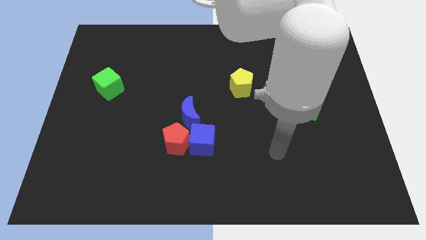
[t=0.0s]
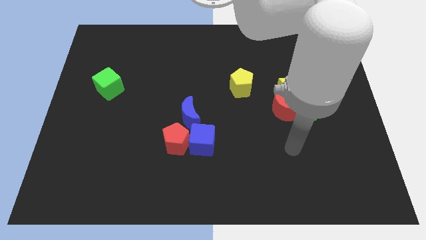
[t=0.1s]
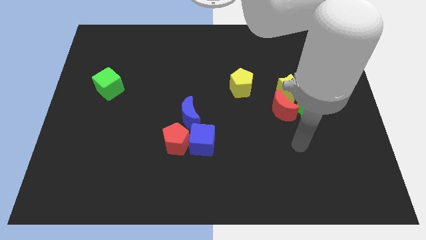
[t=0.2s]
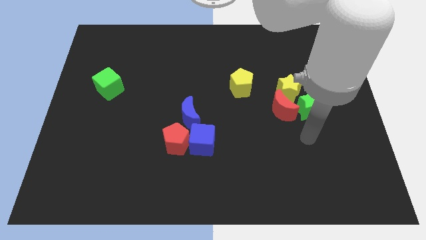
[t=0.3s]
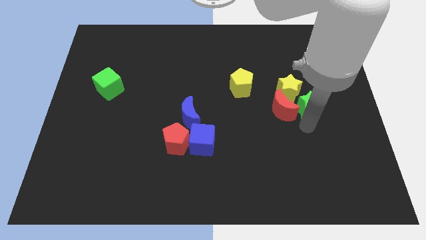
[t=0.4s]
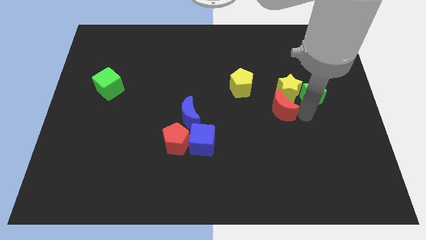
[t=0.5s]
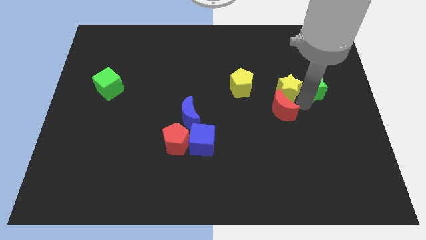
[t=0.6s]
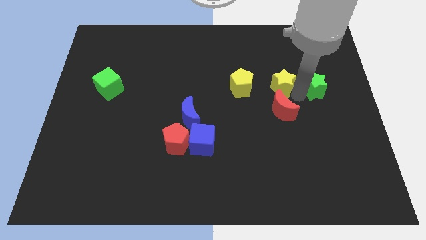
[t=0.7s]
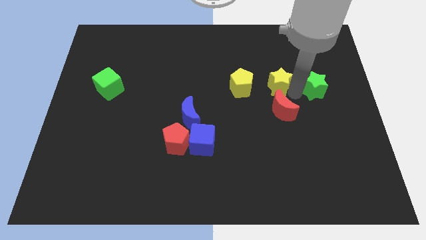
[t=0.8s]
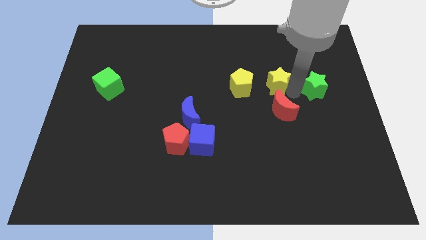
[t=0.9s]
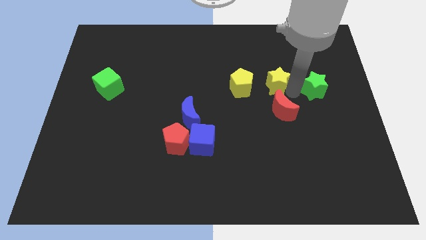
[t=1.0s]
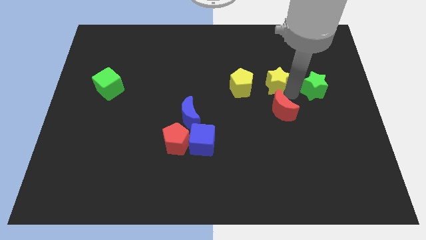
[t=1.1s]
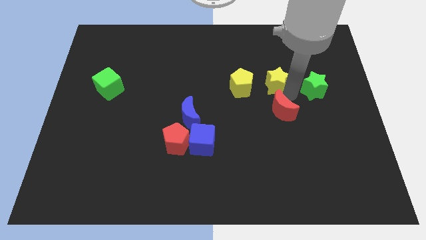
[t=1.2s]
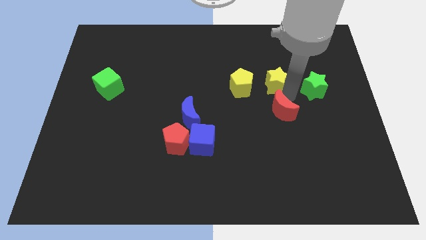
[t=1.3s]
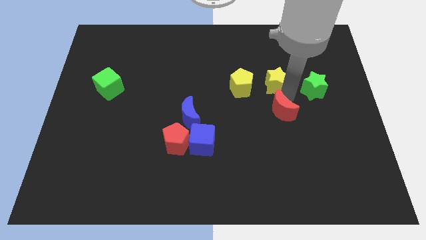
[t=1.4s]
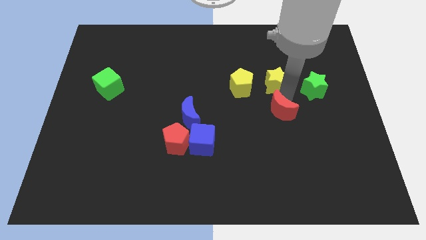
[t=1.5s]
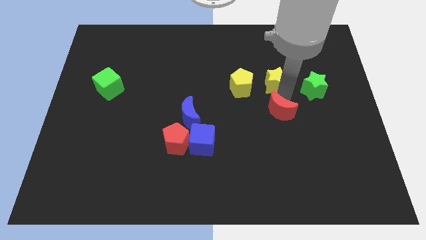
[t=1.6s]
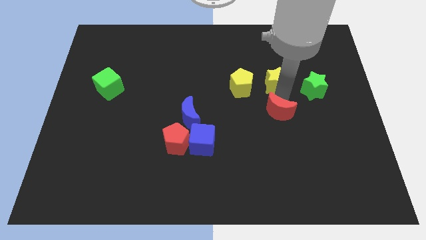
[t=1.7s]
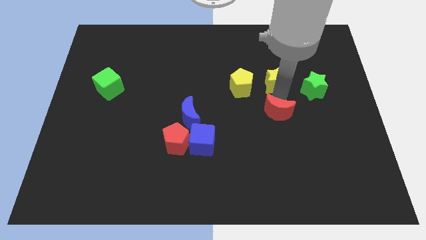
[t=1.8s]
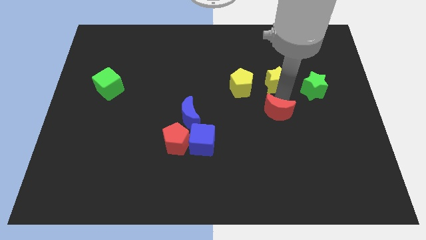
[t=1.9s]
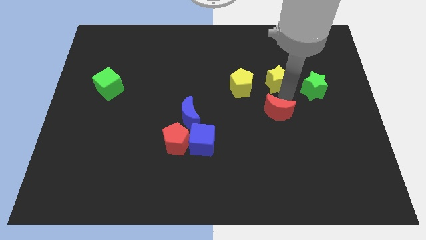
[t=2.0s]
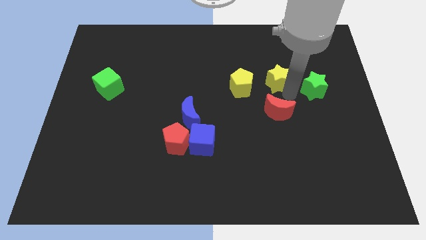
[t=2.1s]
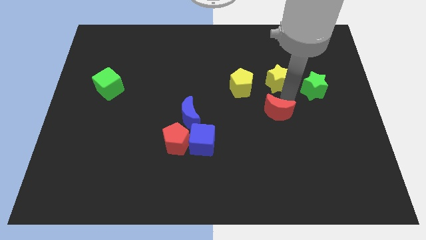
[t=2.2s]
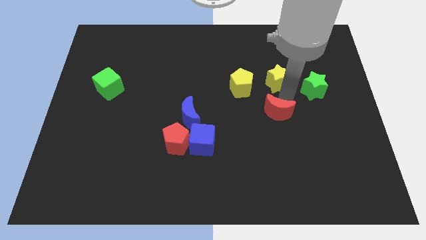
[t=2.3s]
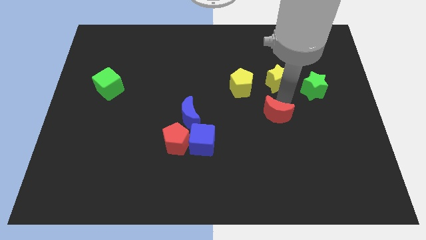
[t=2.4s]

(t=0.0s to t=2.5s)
move the red moon away from the yellow star and green star

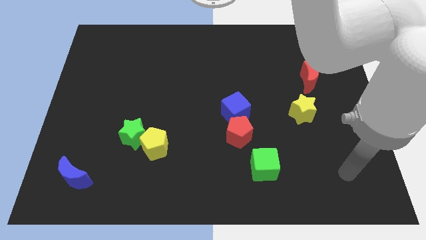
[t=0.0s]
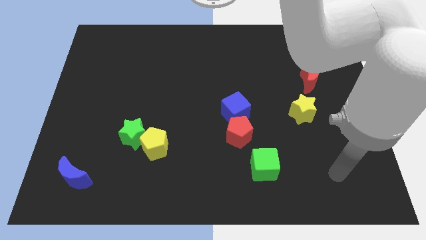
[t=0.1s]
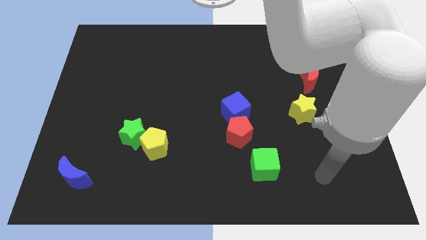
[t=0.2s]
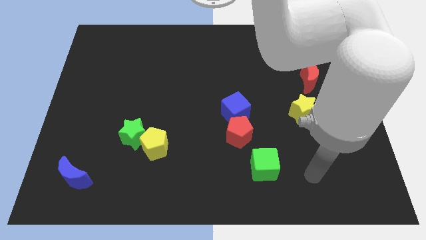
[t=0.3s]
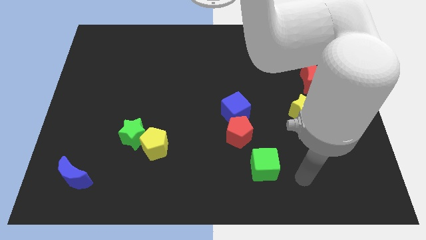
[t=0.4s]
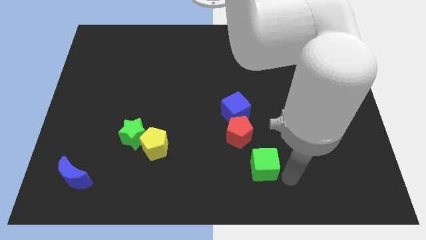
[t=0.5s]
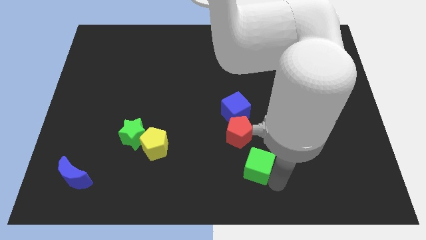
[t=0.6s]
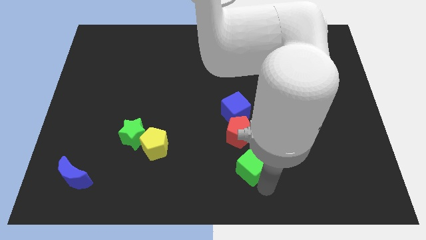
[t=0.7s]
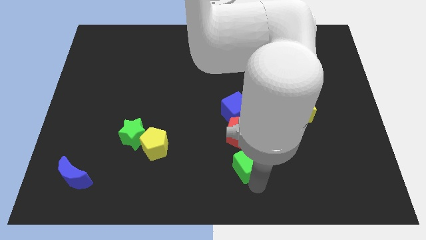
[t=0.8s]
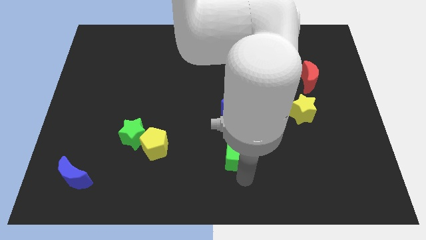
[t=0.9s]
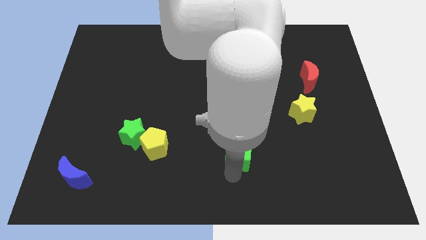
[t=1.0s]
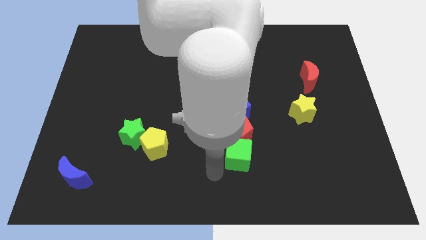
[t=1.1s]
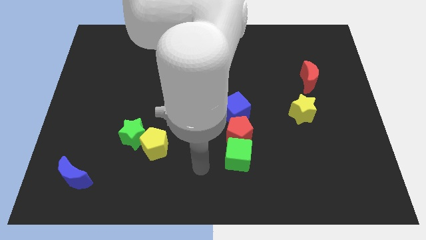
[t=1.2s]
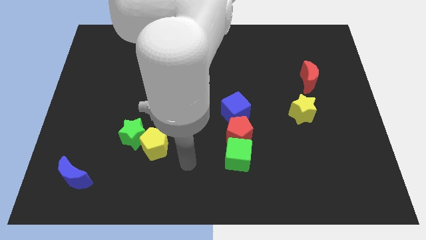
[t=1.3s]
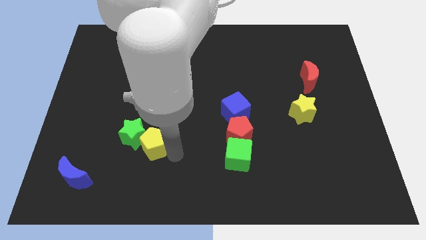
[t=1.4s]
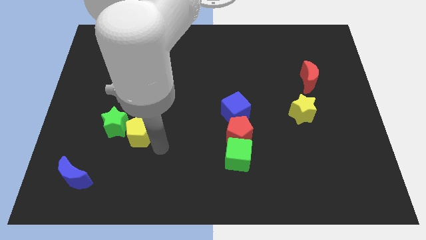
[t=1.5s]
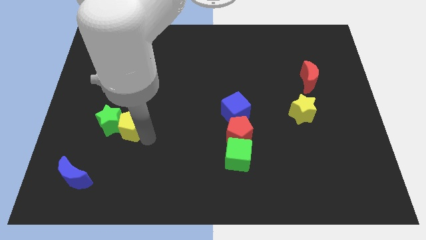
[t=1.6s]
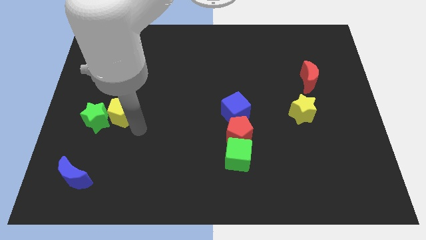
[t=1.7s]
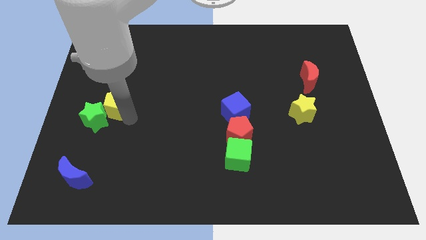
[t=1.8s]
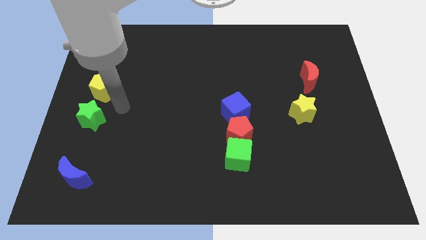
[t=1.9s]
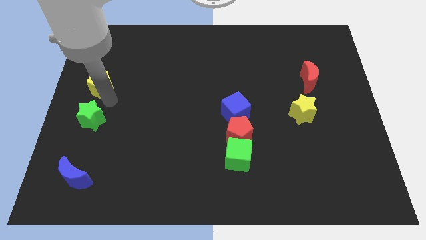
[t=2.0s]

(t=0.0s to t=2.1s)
separate the green star from the yellow pentagon

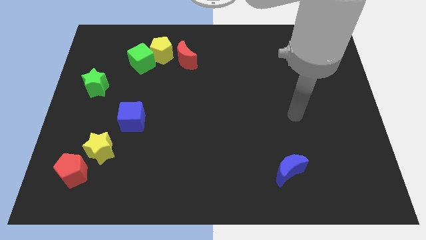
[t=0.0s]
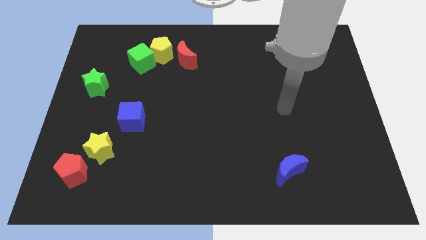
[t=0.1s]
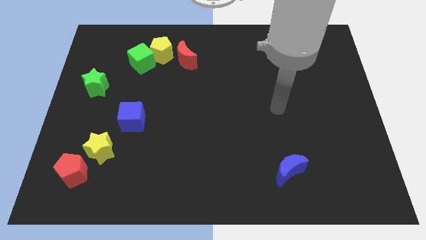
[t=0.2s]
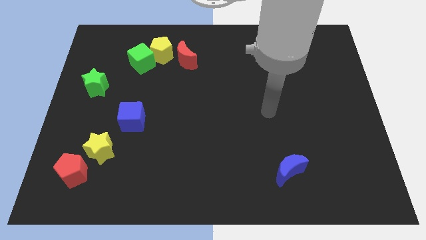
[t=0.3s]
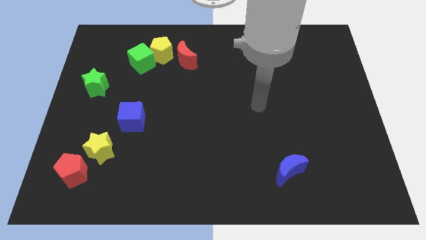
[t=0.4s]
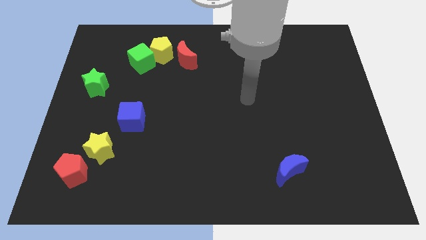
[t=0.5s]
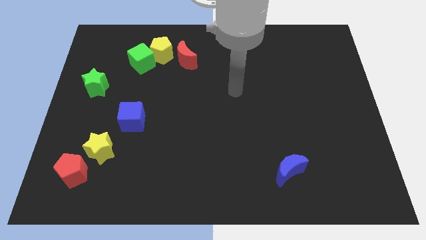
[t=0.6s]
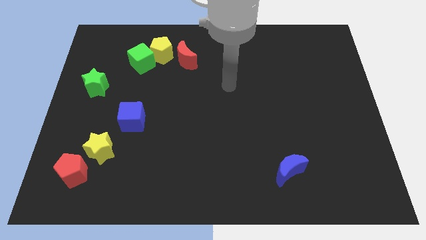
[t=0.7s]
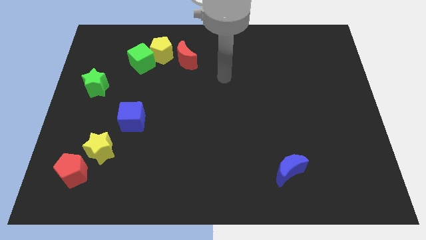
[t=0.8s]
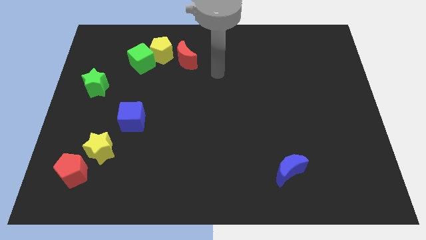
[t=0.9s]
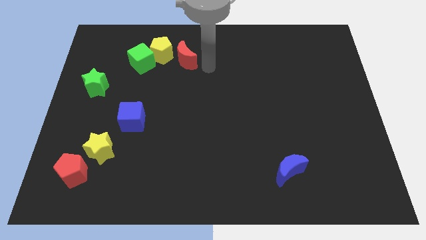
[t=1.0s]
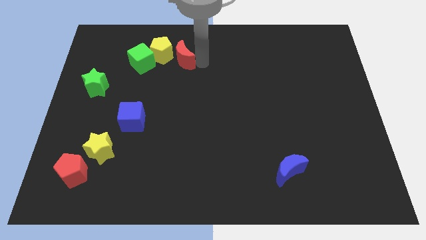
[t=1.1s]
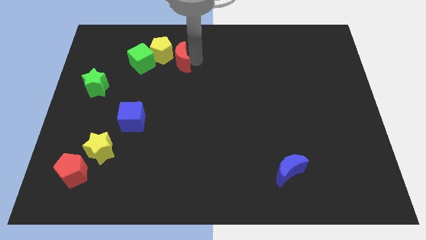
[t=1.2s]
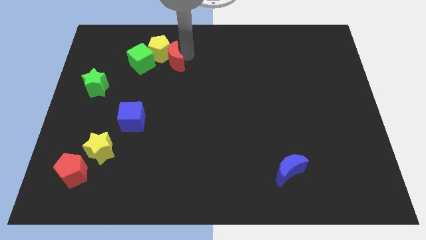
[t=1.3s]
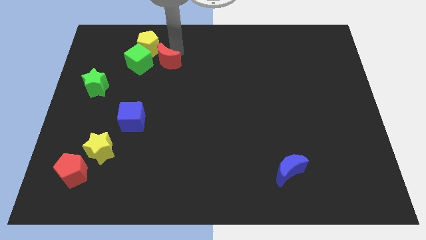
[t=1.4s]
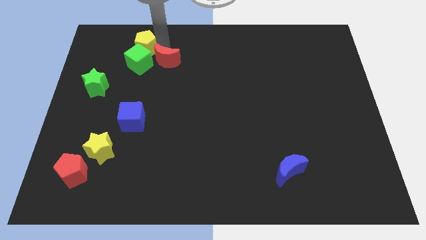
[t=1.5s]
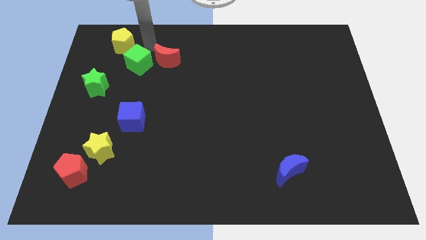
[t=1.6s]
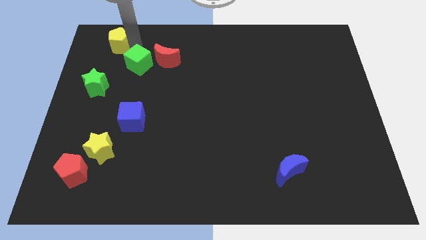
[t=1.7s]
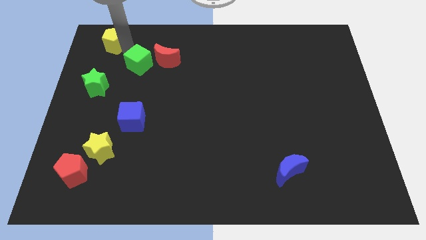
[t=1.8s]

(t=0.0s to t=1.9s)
pull the green cube apart from the yellow pentagon

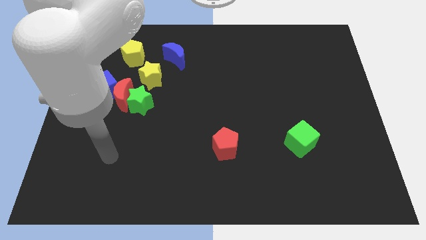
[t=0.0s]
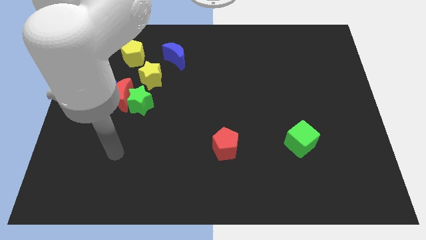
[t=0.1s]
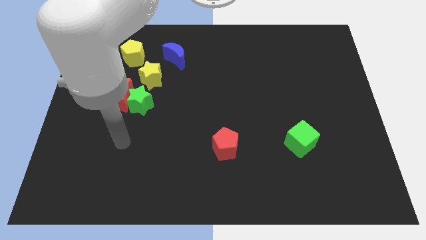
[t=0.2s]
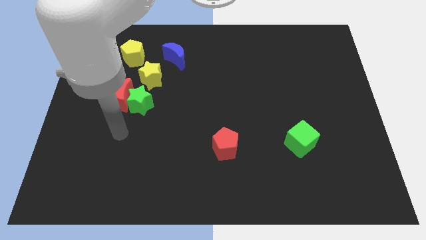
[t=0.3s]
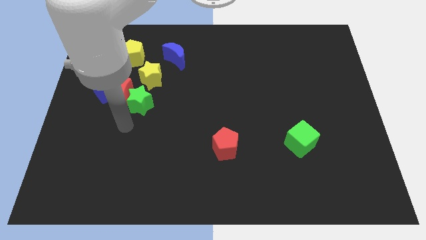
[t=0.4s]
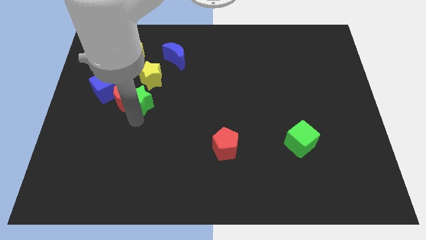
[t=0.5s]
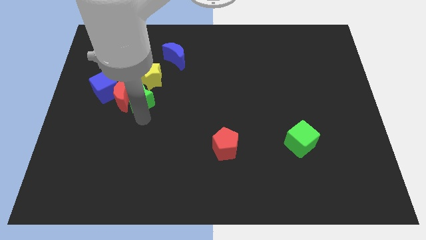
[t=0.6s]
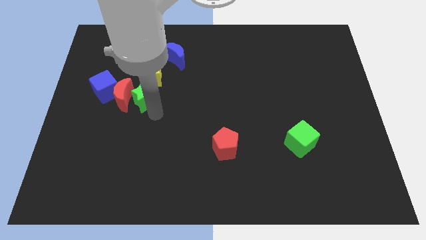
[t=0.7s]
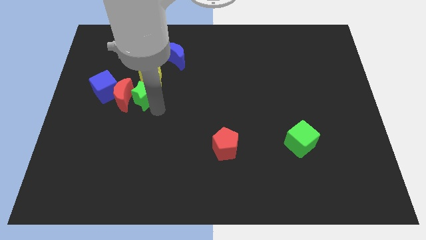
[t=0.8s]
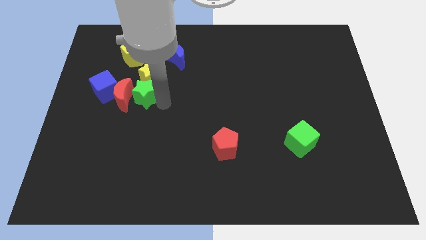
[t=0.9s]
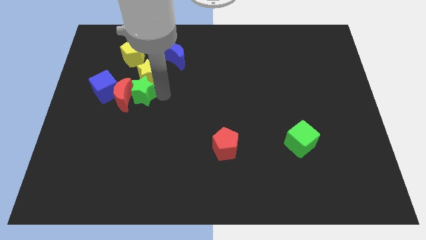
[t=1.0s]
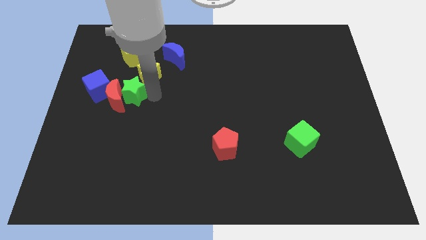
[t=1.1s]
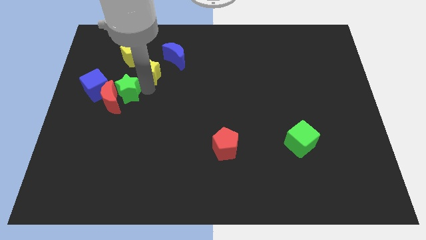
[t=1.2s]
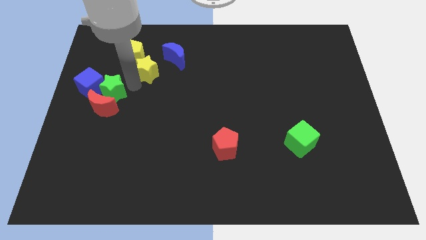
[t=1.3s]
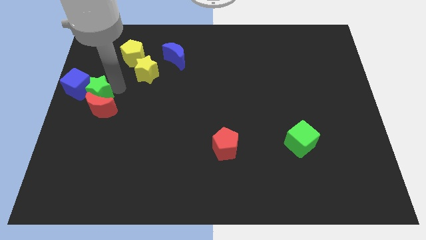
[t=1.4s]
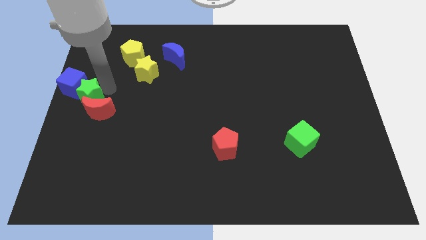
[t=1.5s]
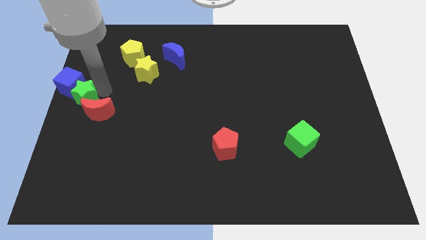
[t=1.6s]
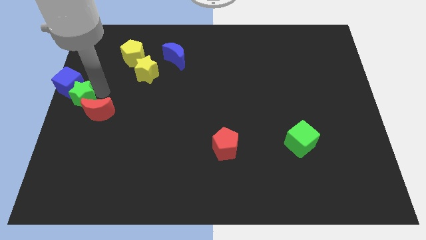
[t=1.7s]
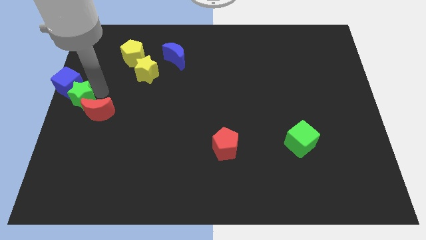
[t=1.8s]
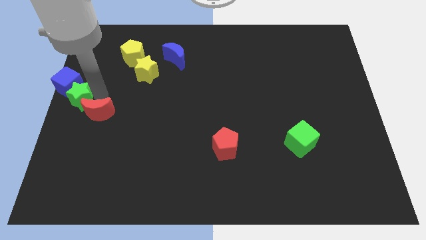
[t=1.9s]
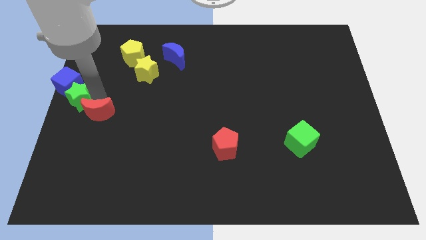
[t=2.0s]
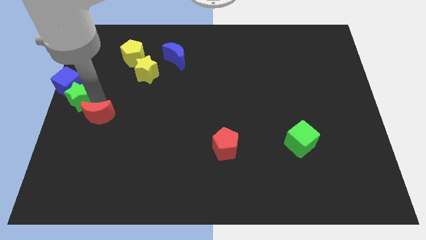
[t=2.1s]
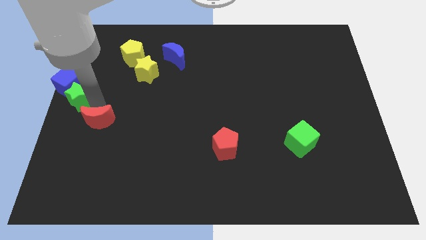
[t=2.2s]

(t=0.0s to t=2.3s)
pull the red moon apart from the green star, blue cube, and yellow star

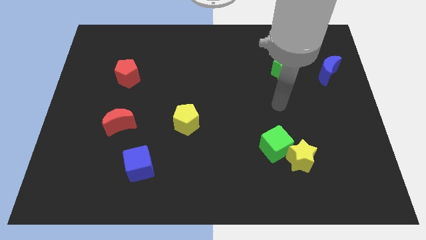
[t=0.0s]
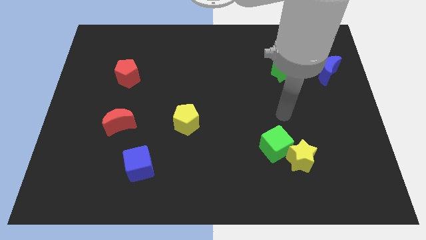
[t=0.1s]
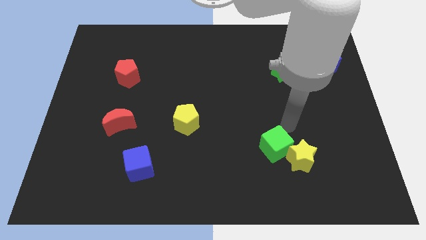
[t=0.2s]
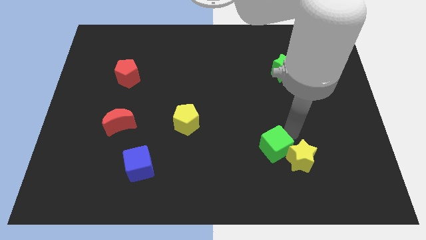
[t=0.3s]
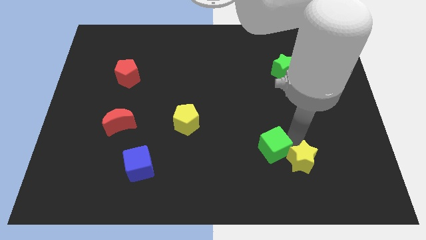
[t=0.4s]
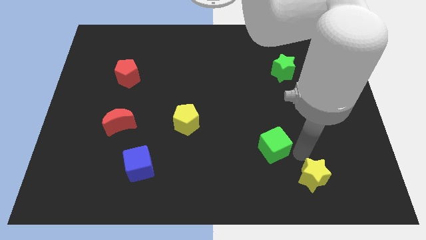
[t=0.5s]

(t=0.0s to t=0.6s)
separate the green cube from the yellow star
